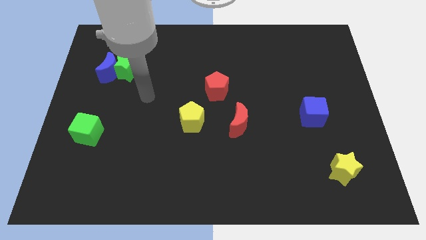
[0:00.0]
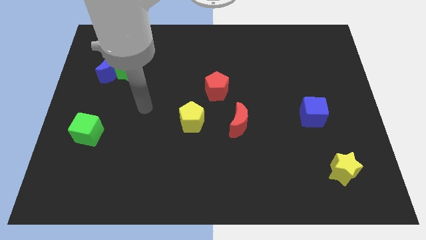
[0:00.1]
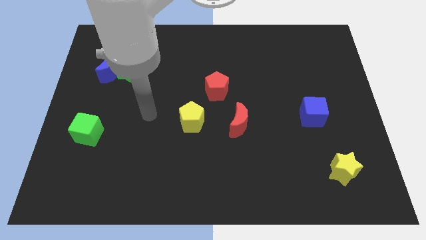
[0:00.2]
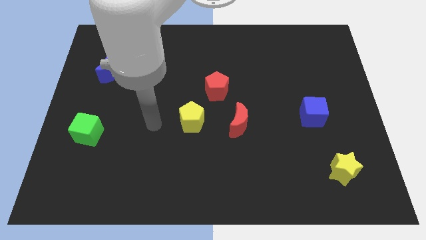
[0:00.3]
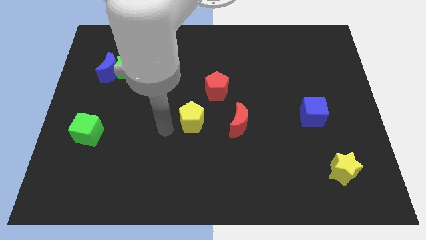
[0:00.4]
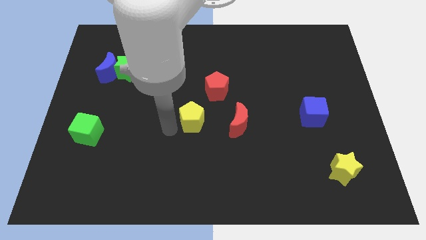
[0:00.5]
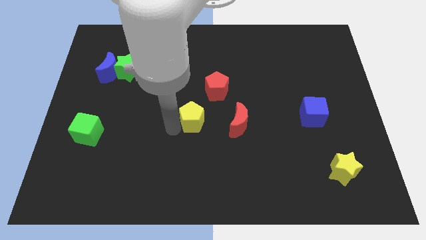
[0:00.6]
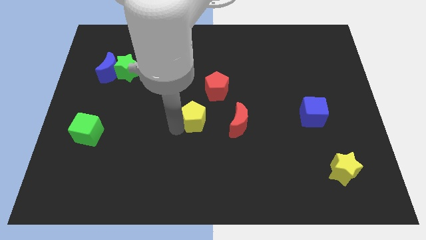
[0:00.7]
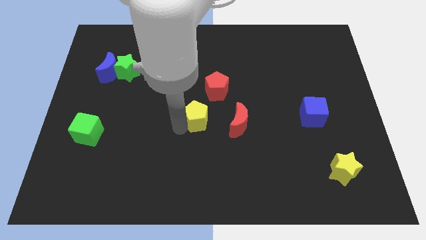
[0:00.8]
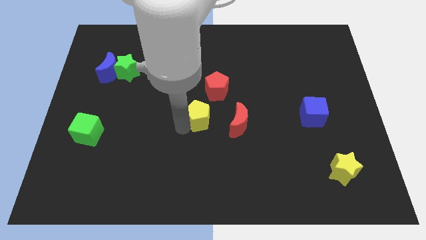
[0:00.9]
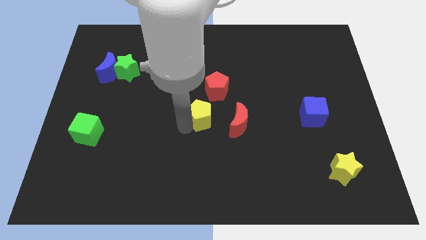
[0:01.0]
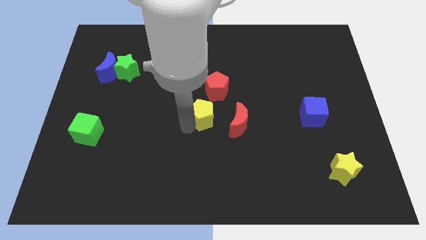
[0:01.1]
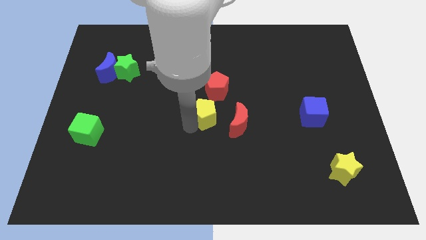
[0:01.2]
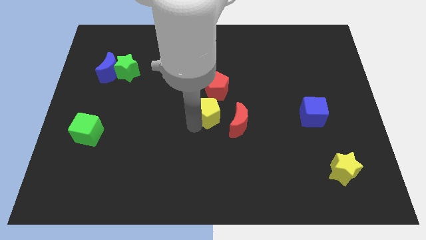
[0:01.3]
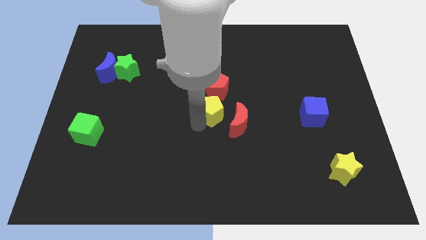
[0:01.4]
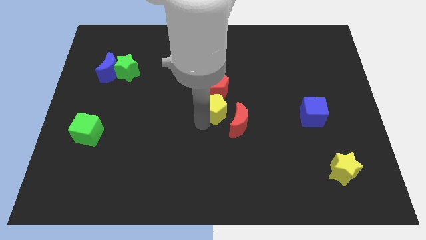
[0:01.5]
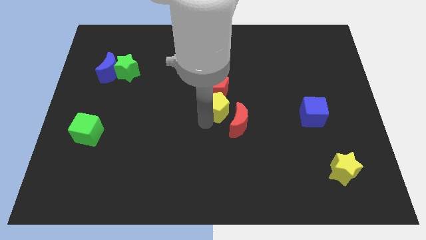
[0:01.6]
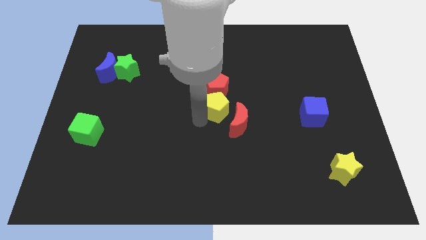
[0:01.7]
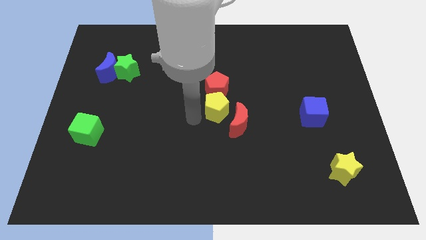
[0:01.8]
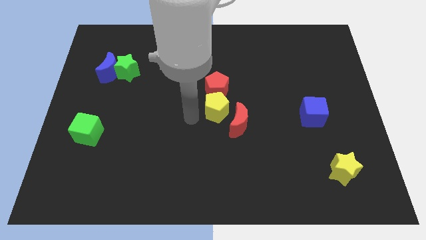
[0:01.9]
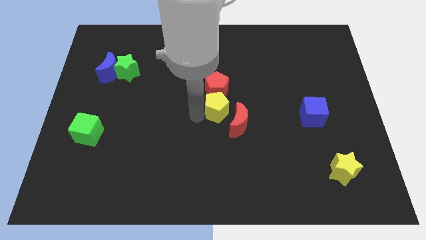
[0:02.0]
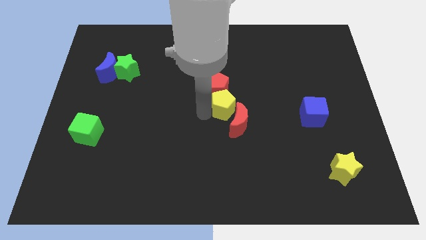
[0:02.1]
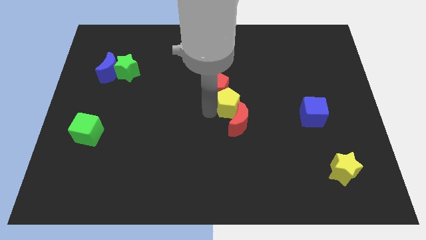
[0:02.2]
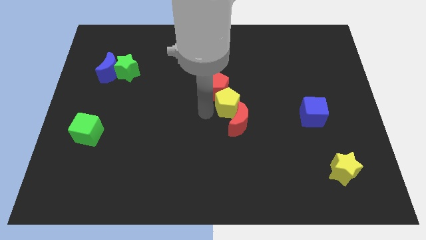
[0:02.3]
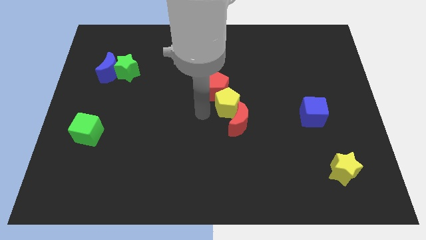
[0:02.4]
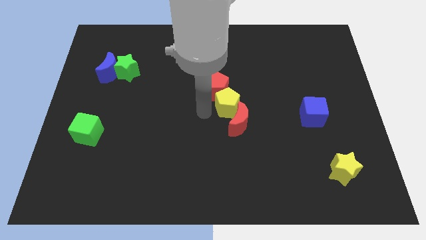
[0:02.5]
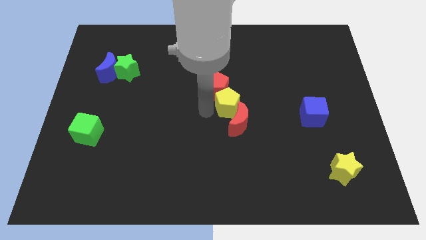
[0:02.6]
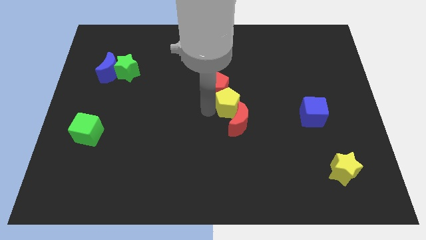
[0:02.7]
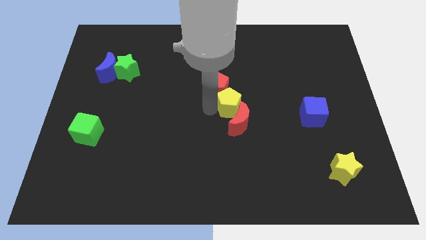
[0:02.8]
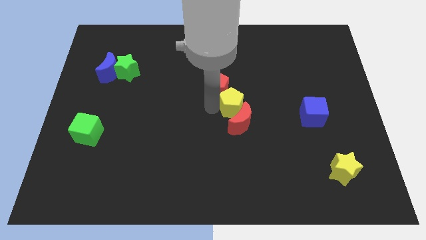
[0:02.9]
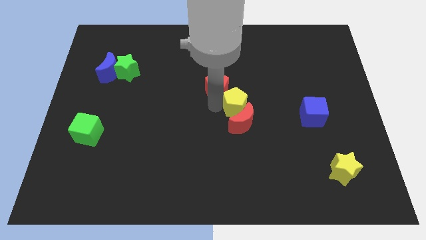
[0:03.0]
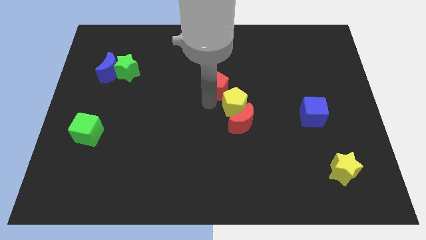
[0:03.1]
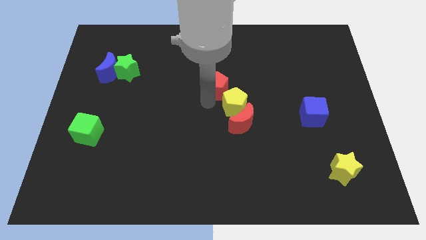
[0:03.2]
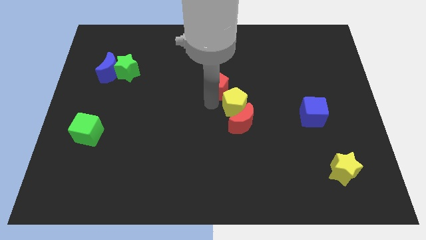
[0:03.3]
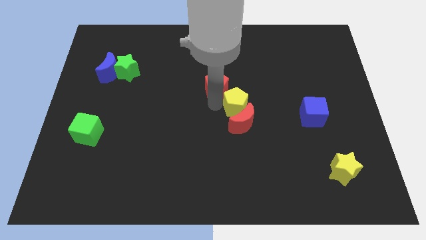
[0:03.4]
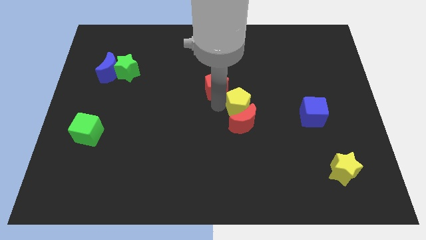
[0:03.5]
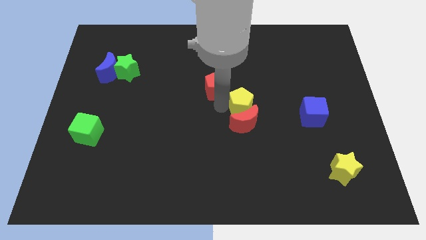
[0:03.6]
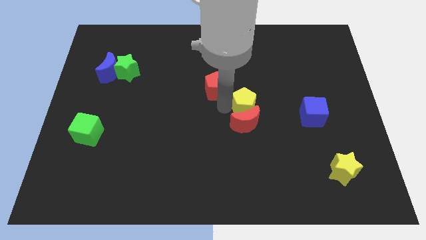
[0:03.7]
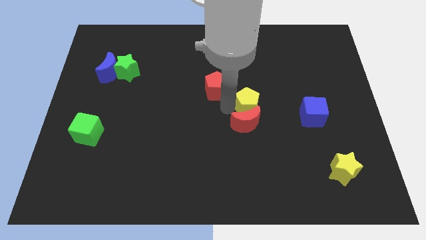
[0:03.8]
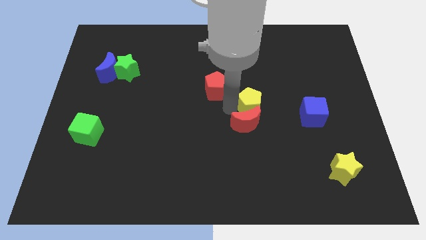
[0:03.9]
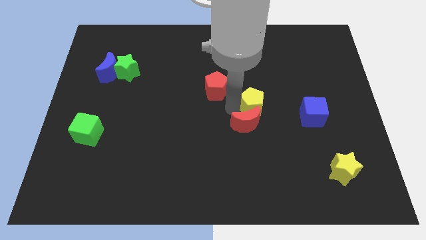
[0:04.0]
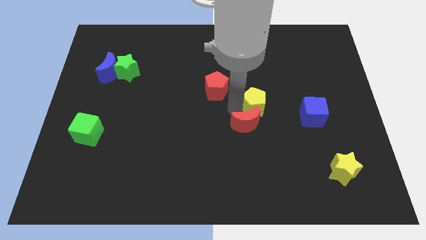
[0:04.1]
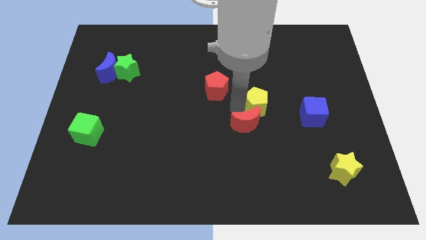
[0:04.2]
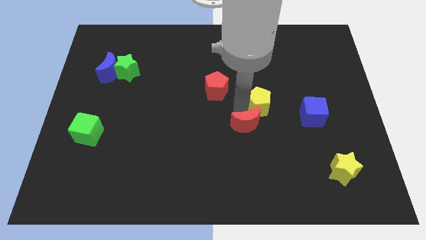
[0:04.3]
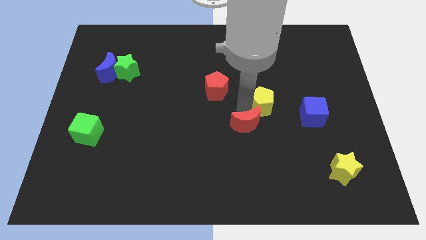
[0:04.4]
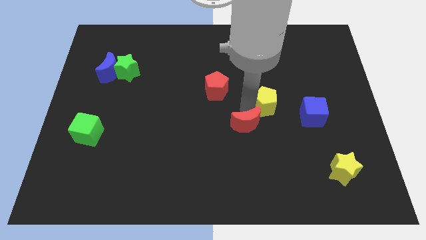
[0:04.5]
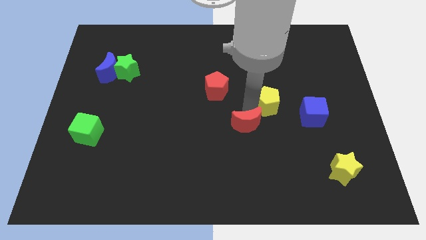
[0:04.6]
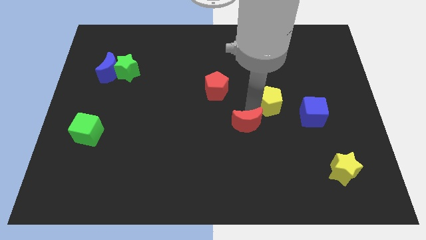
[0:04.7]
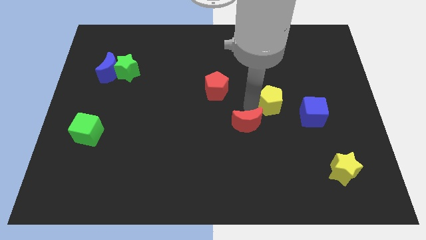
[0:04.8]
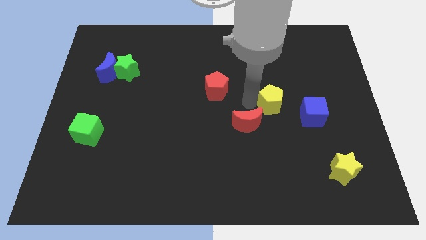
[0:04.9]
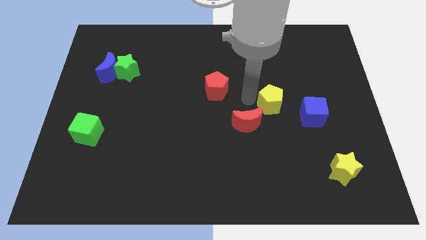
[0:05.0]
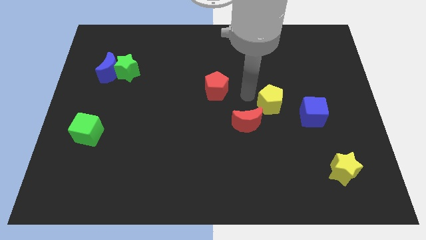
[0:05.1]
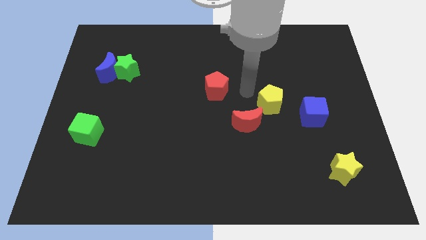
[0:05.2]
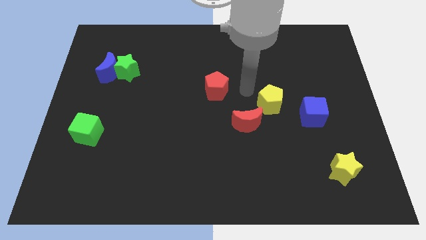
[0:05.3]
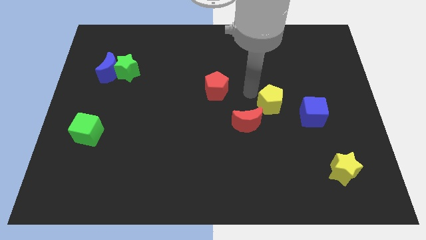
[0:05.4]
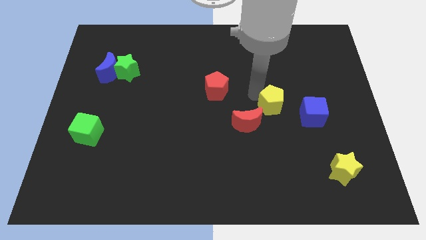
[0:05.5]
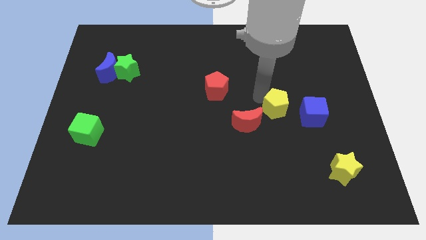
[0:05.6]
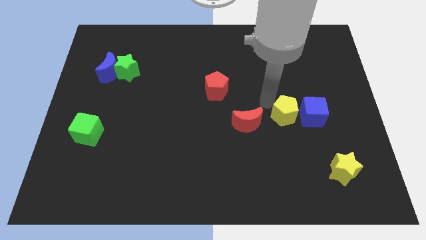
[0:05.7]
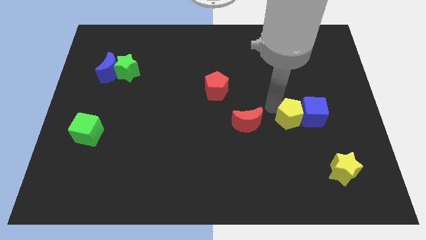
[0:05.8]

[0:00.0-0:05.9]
move the yellow pentagon towards the blue cube

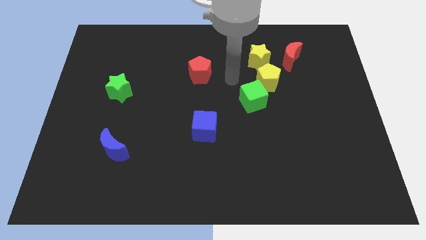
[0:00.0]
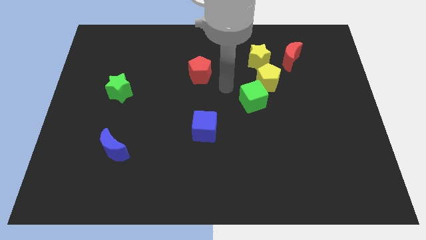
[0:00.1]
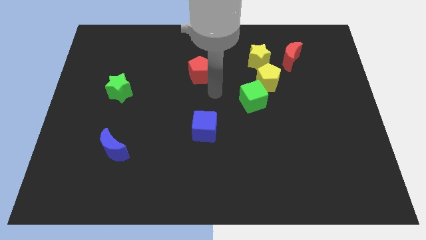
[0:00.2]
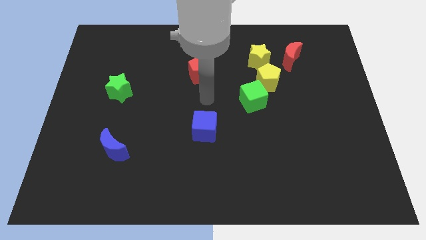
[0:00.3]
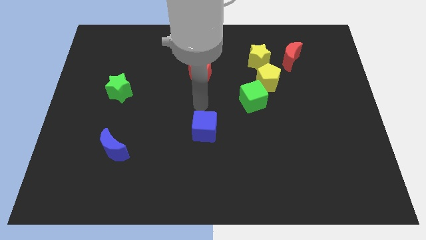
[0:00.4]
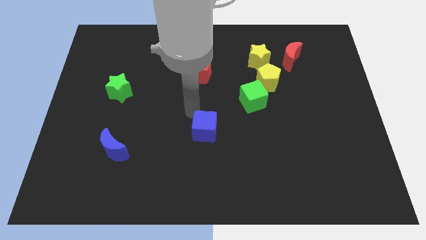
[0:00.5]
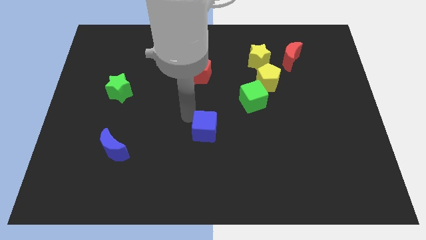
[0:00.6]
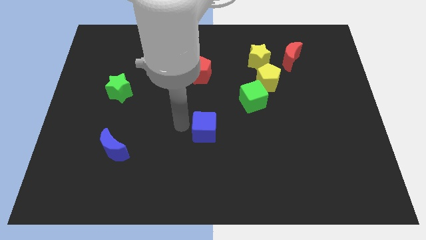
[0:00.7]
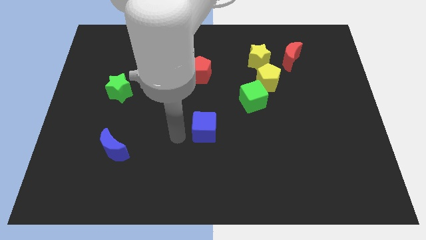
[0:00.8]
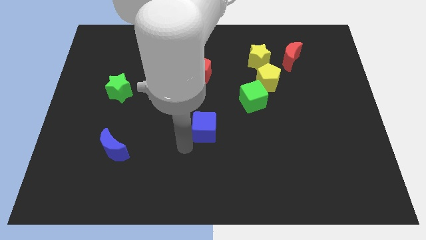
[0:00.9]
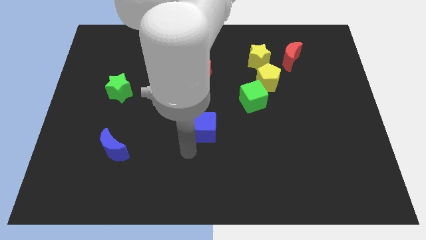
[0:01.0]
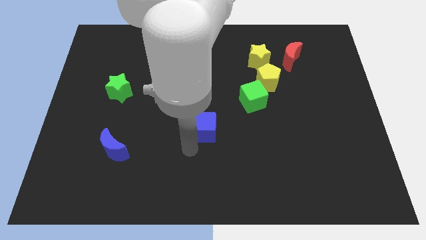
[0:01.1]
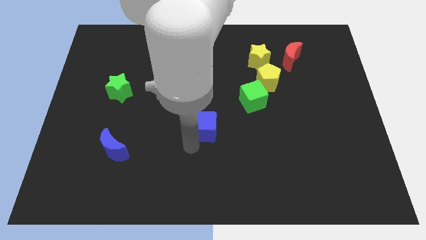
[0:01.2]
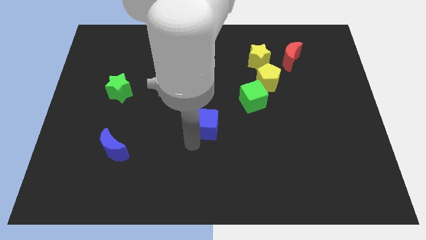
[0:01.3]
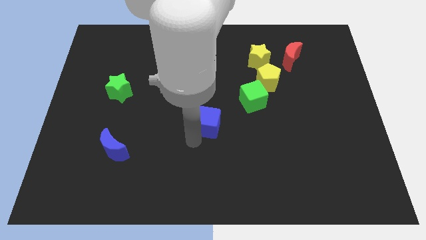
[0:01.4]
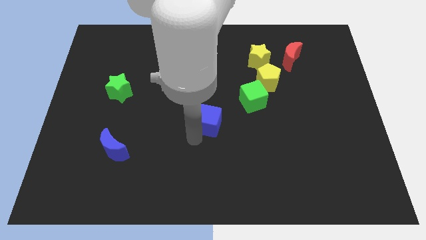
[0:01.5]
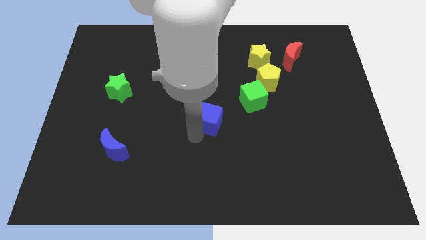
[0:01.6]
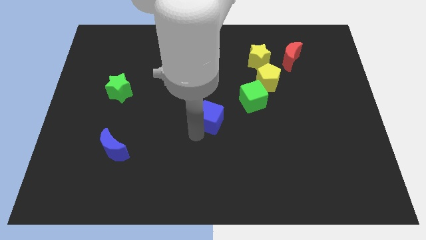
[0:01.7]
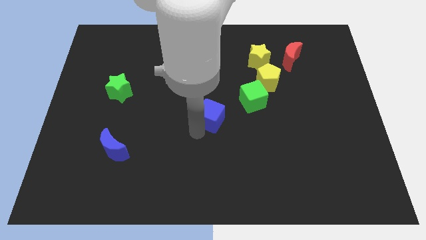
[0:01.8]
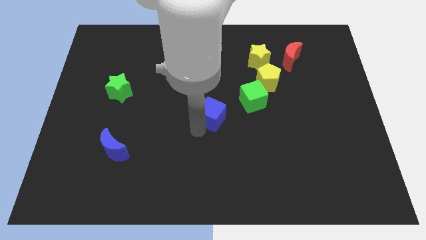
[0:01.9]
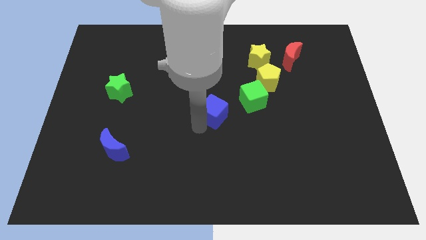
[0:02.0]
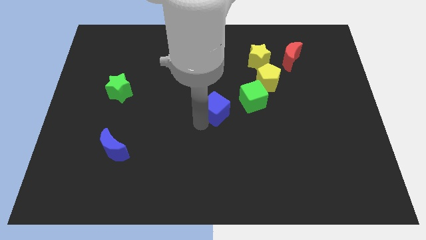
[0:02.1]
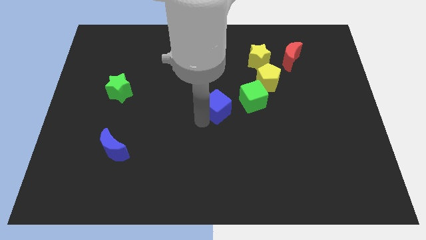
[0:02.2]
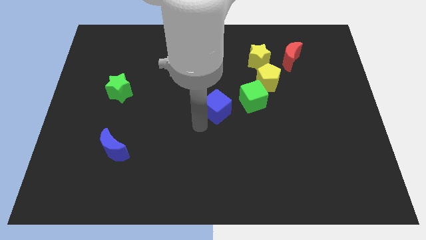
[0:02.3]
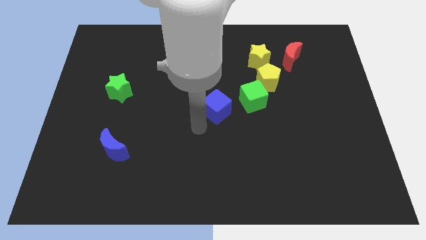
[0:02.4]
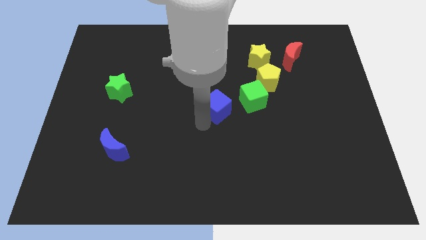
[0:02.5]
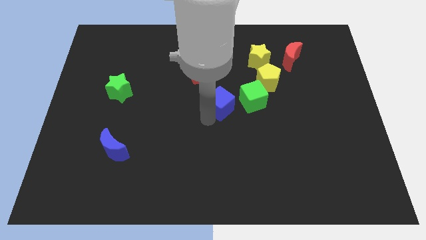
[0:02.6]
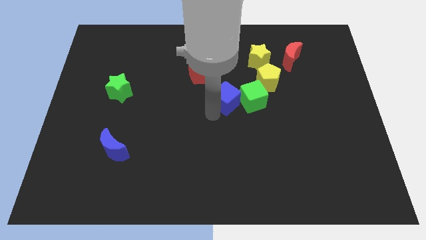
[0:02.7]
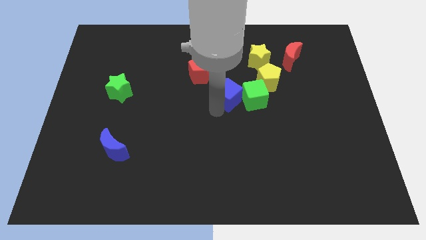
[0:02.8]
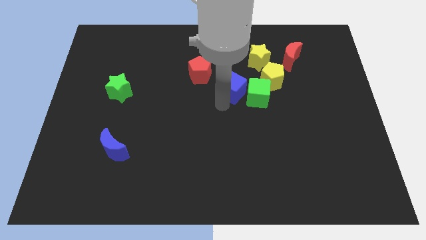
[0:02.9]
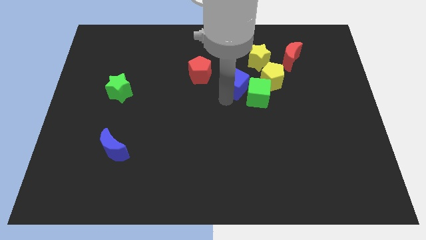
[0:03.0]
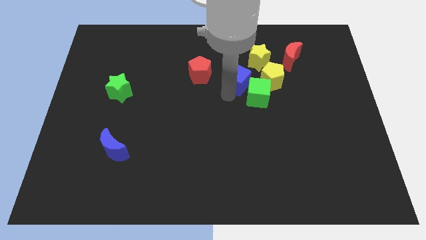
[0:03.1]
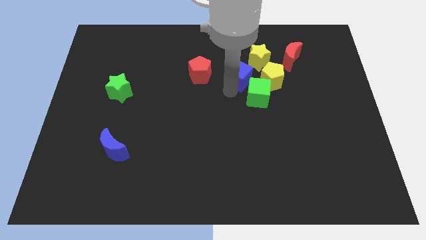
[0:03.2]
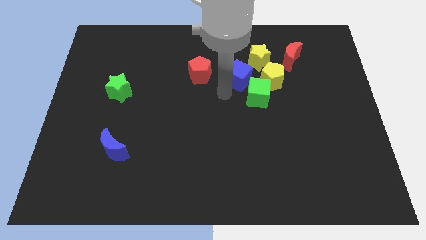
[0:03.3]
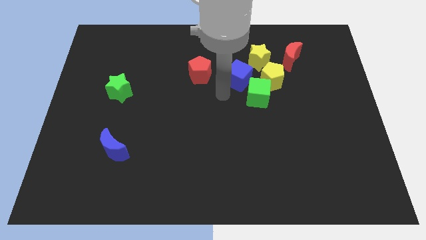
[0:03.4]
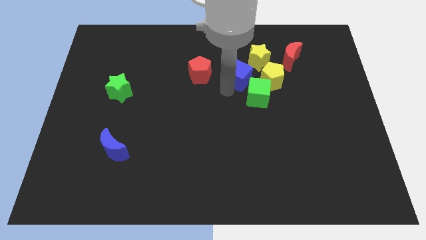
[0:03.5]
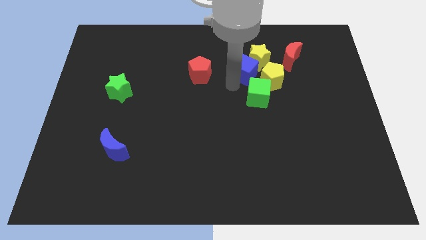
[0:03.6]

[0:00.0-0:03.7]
slide the blue cube to the yellow star
